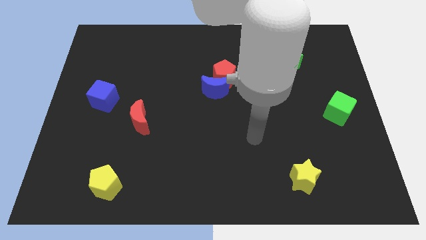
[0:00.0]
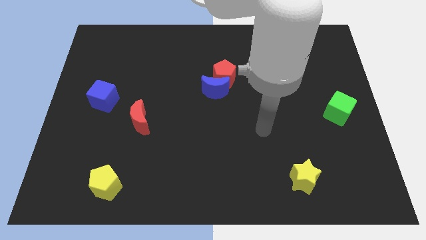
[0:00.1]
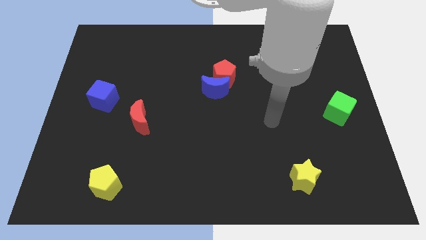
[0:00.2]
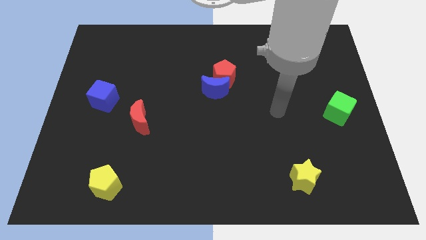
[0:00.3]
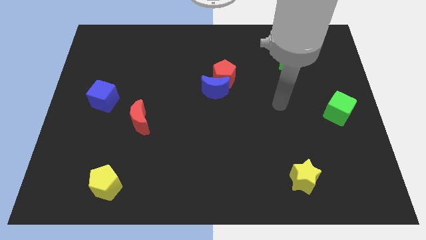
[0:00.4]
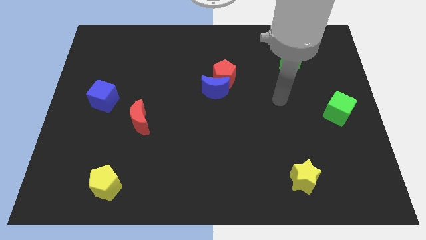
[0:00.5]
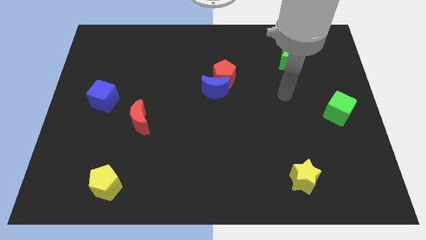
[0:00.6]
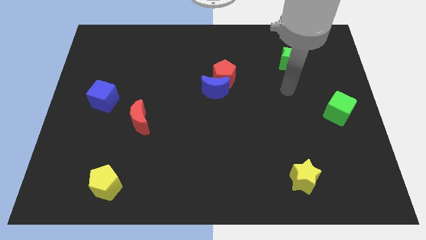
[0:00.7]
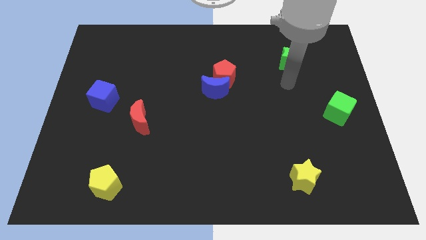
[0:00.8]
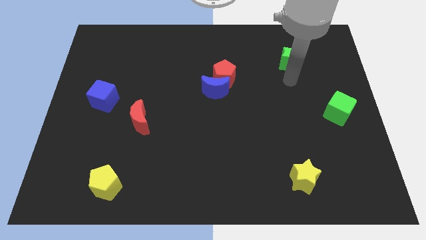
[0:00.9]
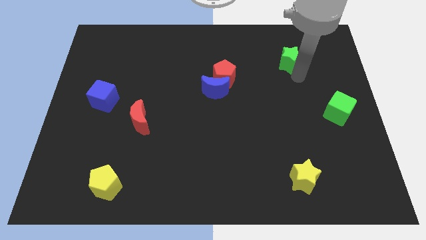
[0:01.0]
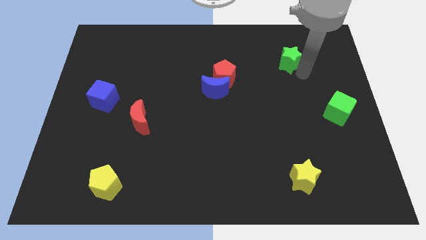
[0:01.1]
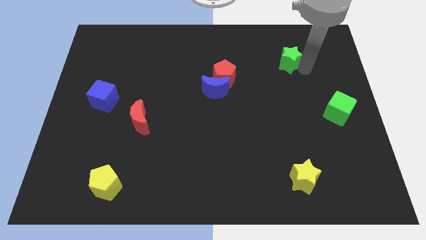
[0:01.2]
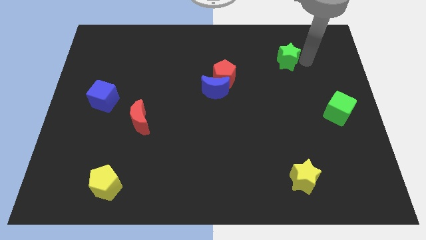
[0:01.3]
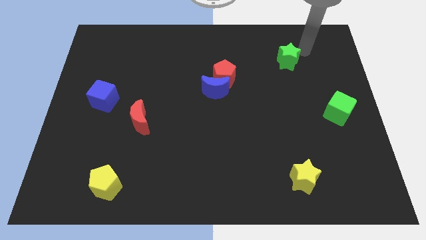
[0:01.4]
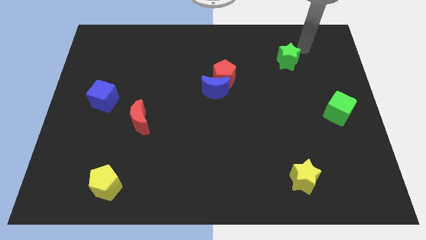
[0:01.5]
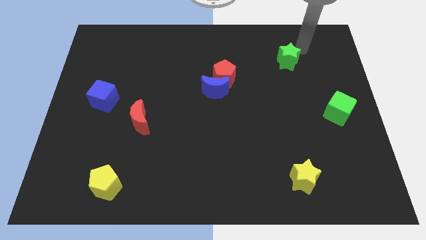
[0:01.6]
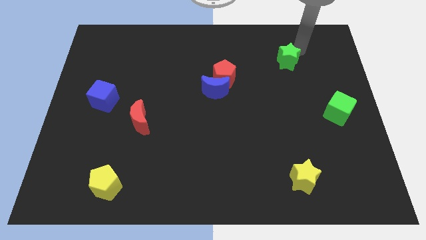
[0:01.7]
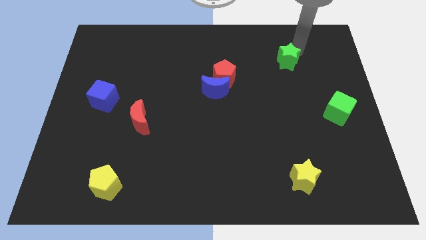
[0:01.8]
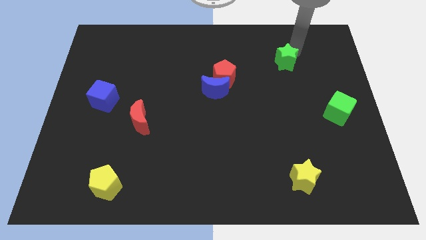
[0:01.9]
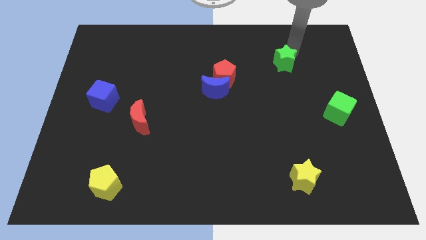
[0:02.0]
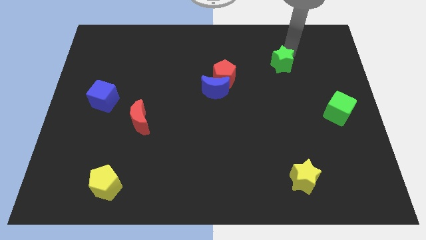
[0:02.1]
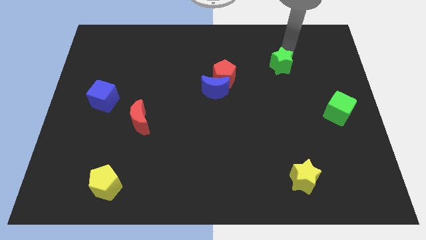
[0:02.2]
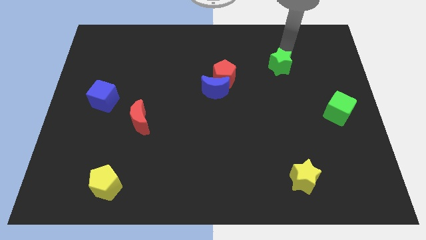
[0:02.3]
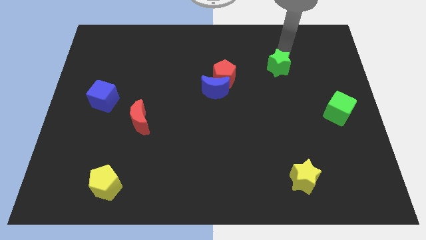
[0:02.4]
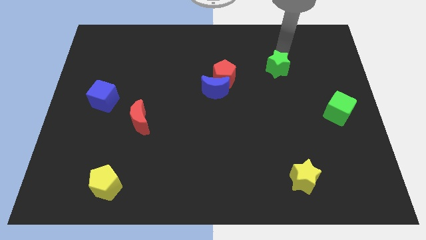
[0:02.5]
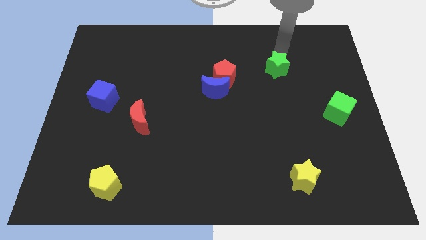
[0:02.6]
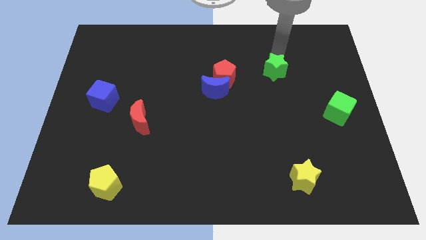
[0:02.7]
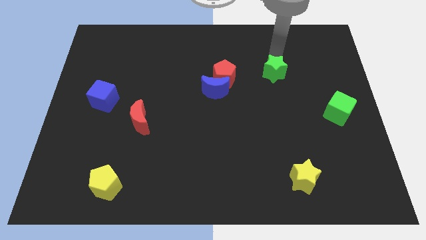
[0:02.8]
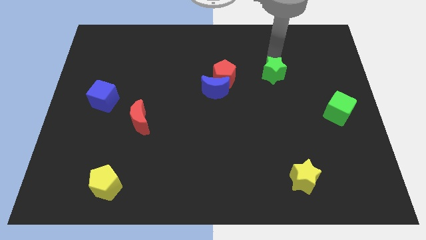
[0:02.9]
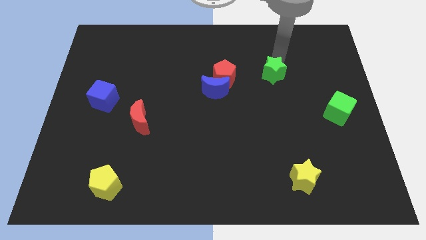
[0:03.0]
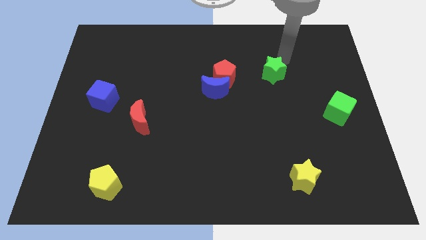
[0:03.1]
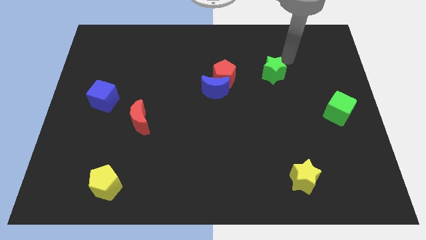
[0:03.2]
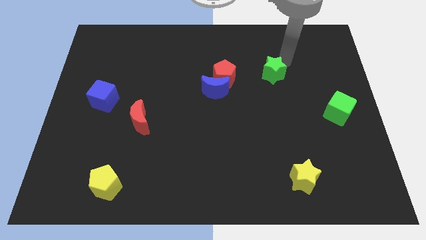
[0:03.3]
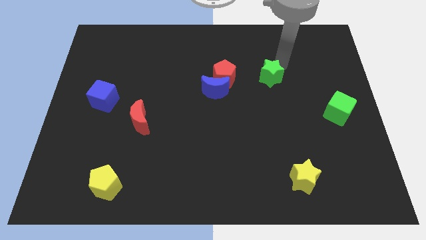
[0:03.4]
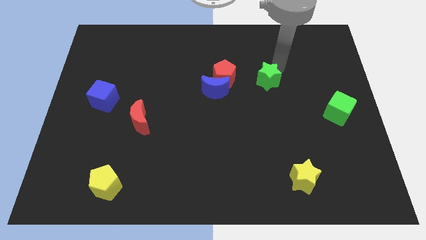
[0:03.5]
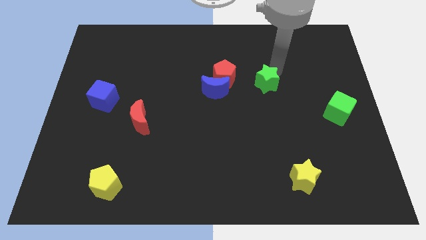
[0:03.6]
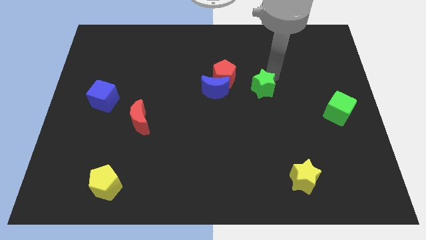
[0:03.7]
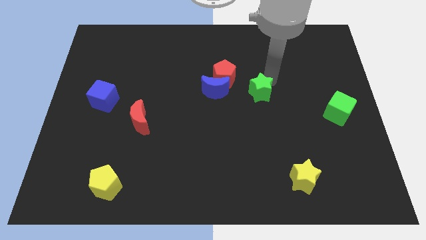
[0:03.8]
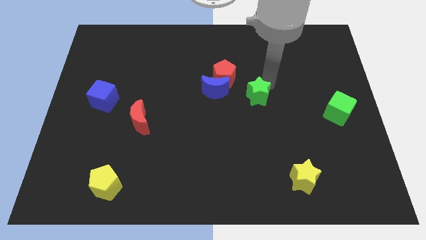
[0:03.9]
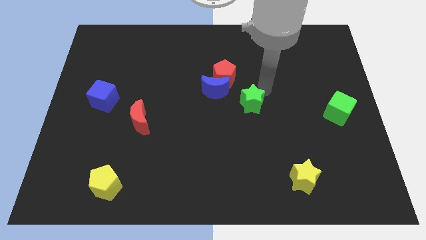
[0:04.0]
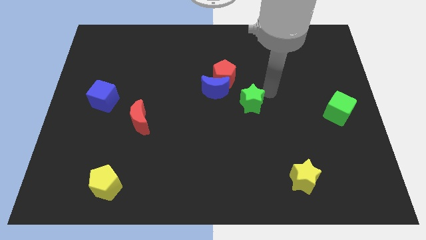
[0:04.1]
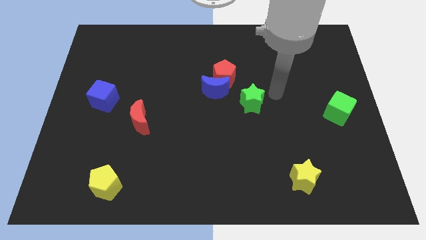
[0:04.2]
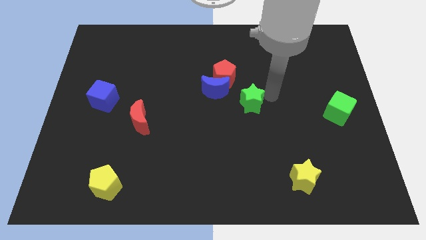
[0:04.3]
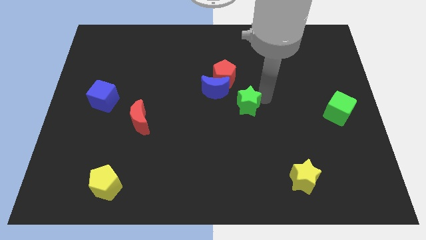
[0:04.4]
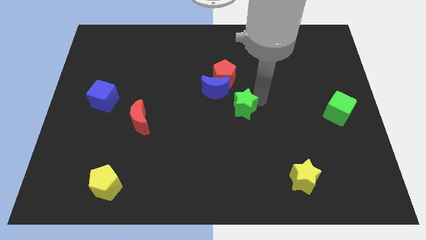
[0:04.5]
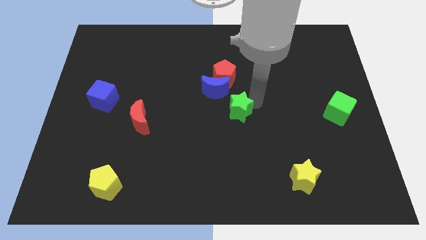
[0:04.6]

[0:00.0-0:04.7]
slide the green star down and then left

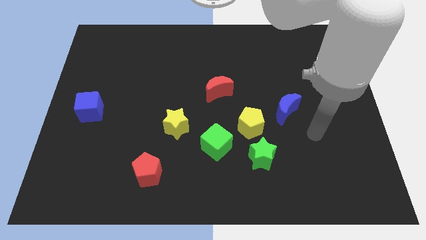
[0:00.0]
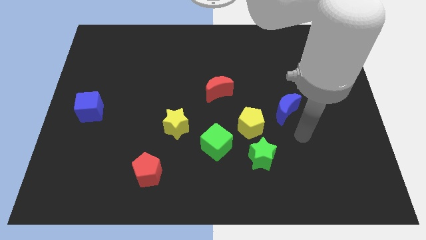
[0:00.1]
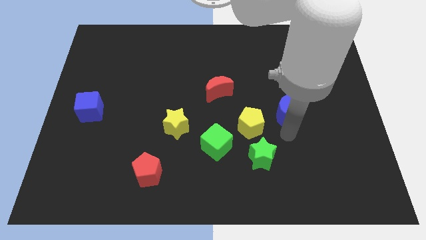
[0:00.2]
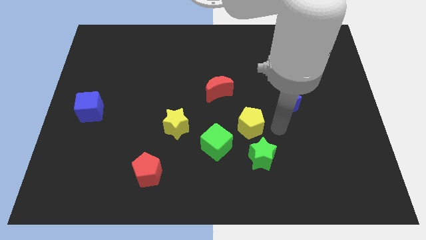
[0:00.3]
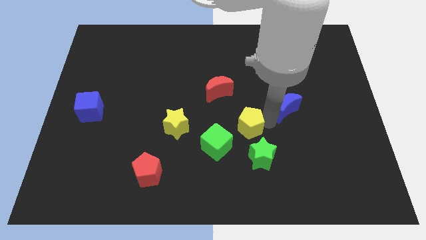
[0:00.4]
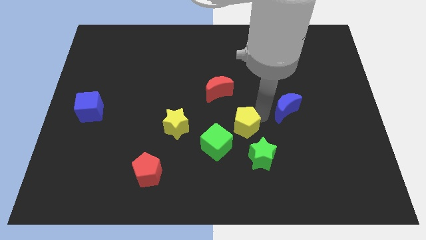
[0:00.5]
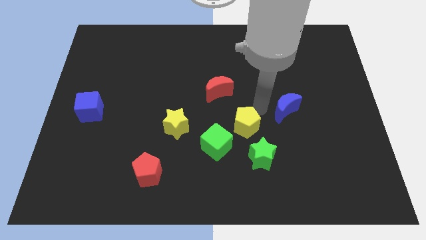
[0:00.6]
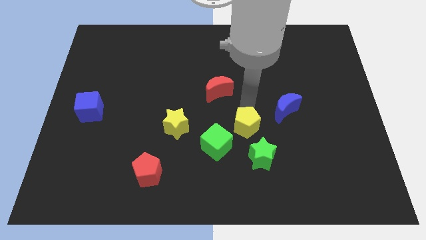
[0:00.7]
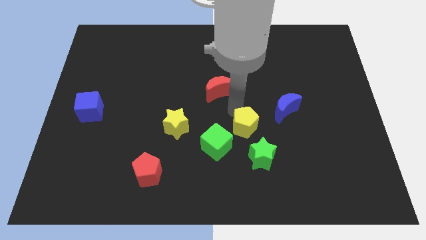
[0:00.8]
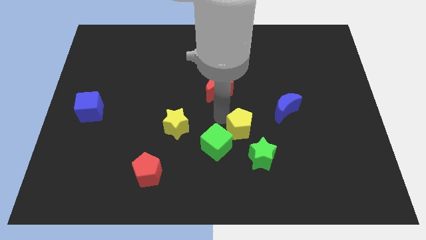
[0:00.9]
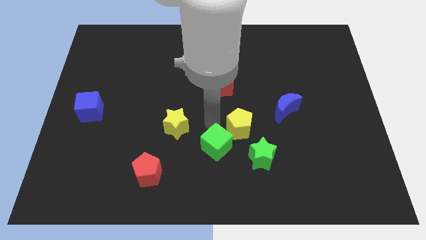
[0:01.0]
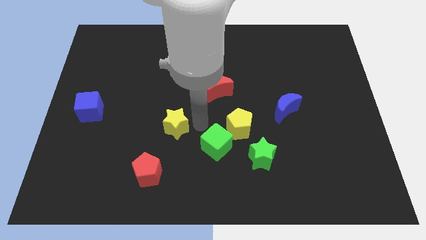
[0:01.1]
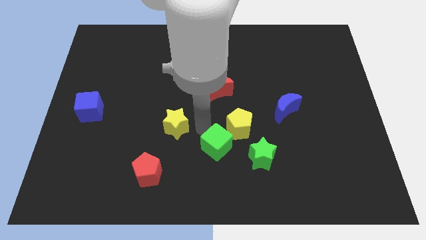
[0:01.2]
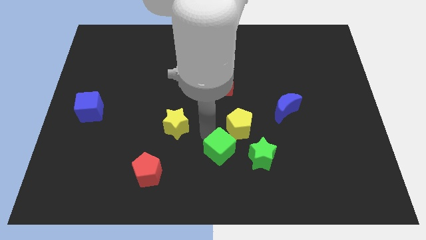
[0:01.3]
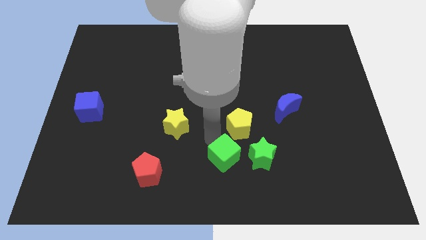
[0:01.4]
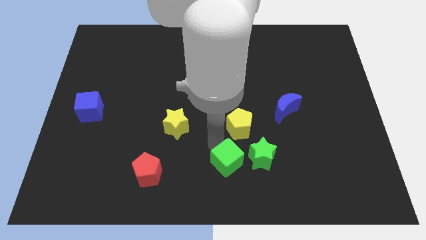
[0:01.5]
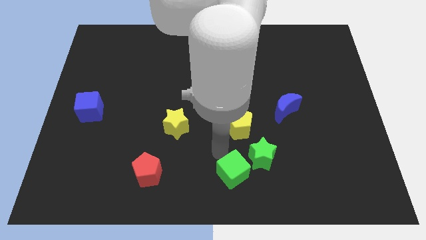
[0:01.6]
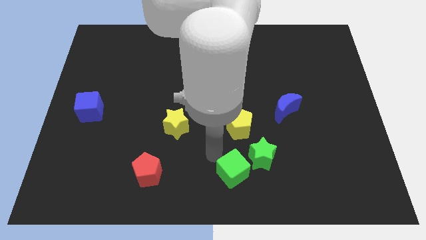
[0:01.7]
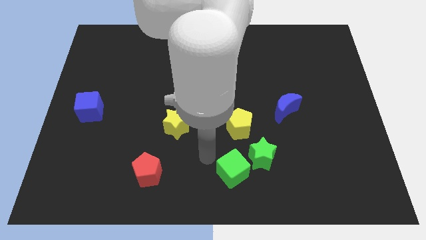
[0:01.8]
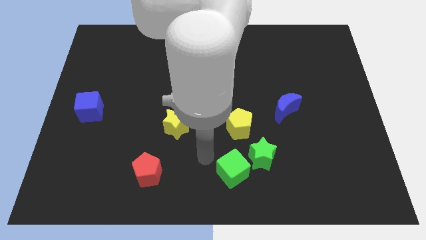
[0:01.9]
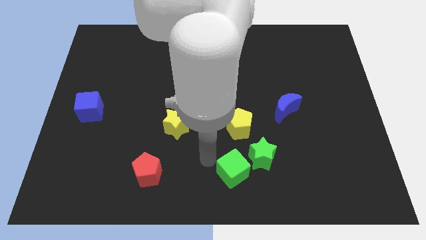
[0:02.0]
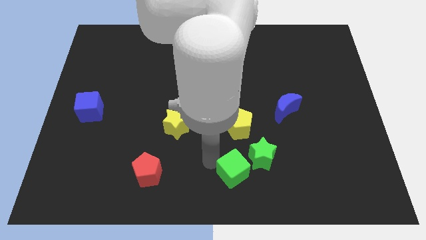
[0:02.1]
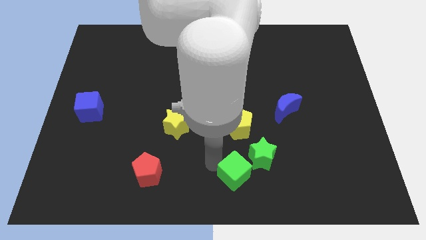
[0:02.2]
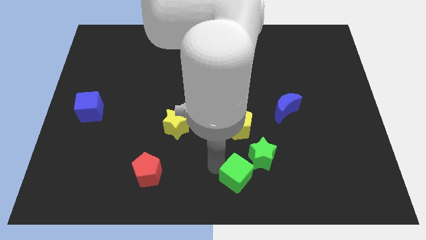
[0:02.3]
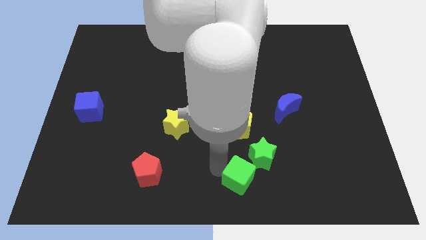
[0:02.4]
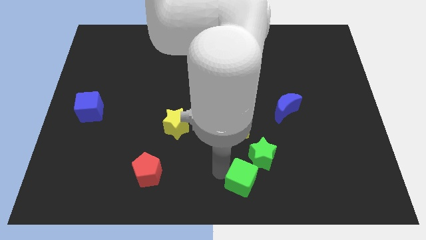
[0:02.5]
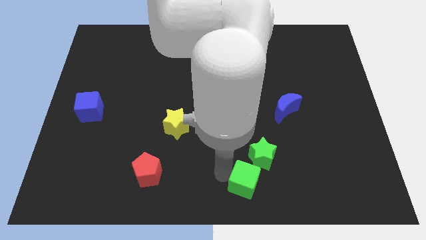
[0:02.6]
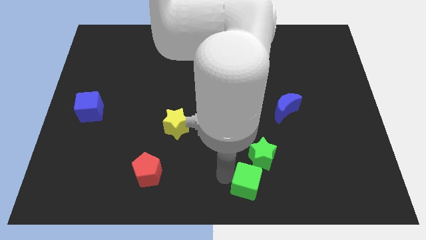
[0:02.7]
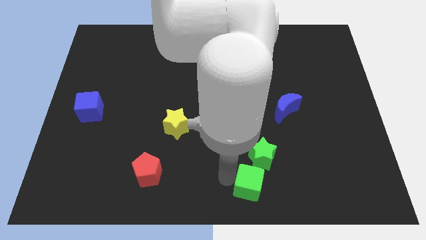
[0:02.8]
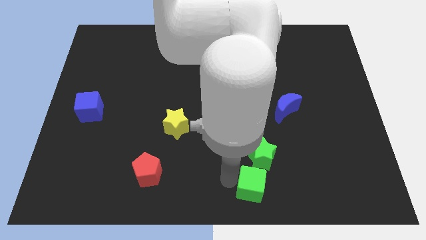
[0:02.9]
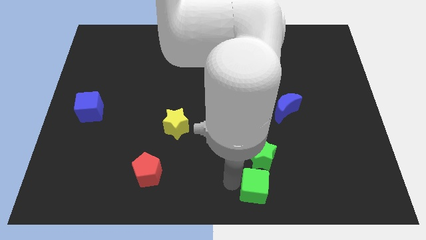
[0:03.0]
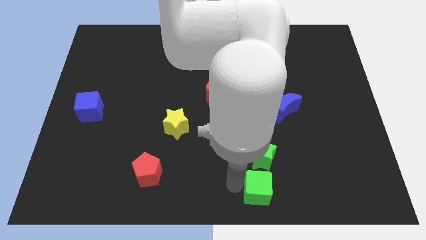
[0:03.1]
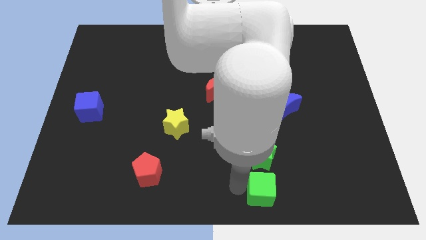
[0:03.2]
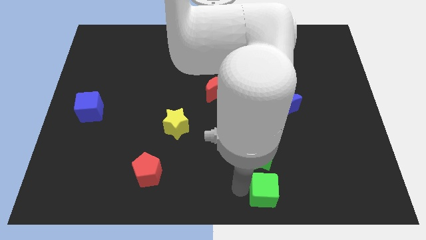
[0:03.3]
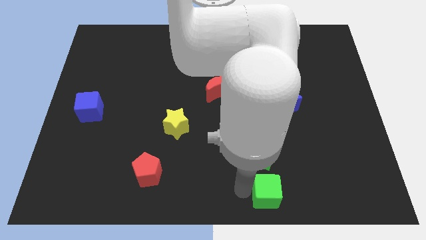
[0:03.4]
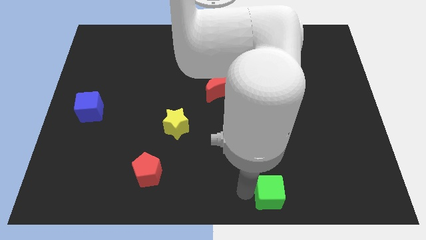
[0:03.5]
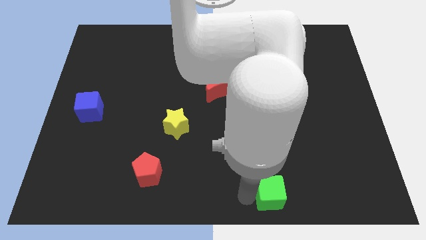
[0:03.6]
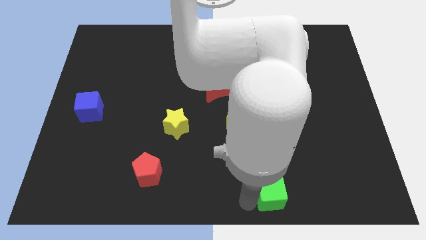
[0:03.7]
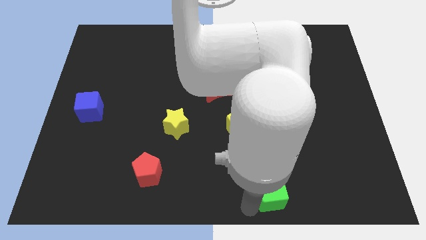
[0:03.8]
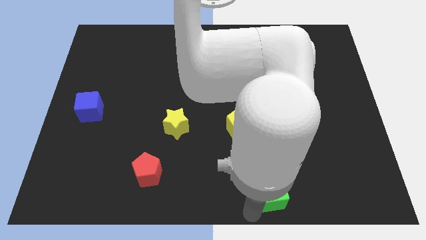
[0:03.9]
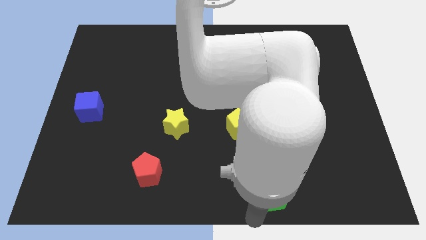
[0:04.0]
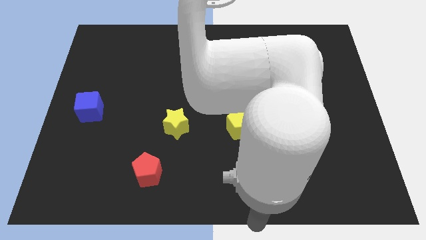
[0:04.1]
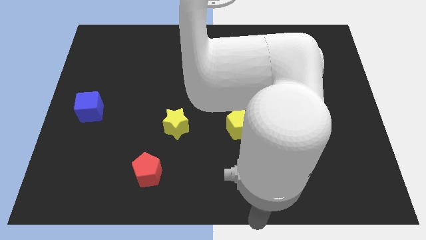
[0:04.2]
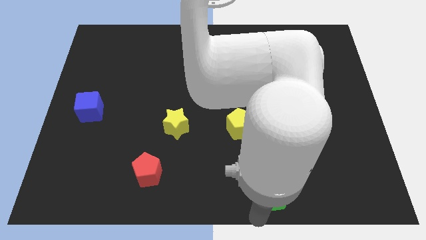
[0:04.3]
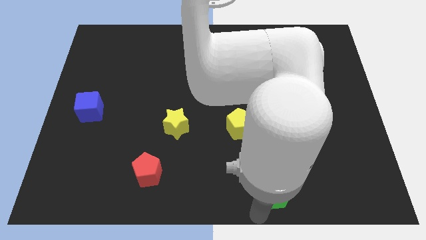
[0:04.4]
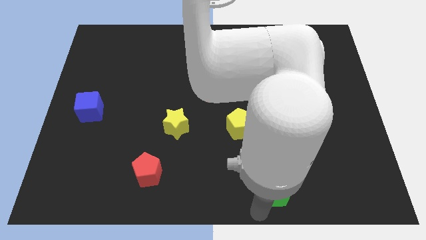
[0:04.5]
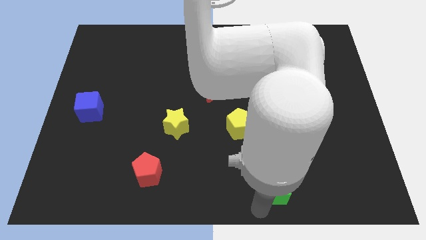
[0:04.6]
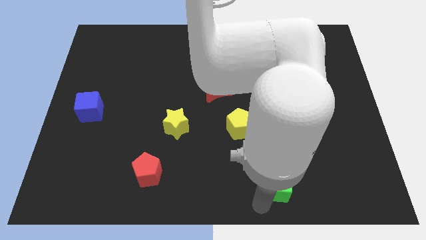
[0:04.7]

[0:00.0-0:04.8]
move the green cube a little bit right
